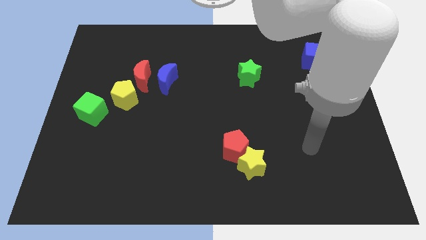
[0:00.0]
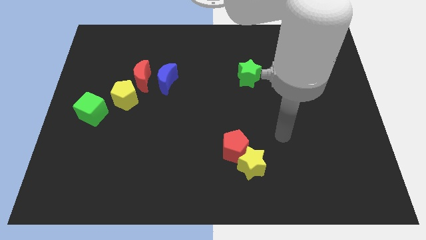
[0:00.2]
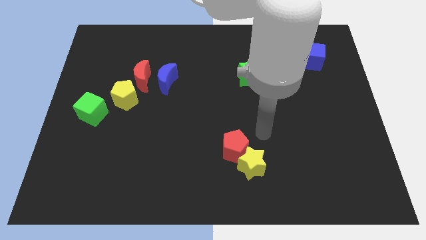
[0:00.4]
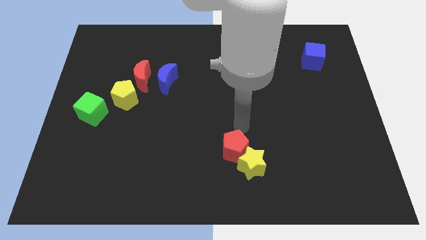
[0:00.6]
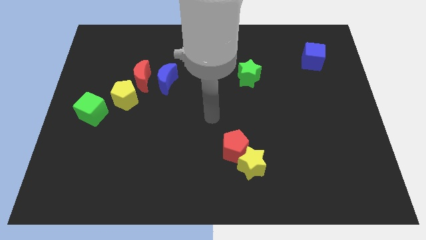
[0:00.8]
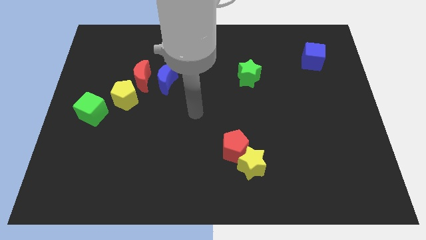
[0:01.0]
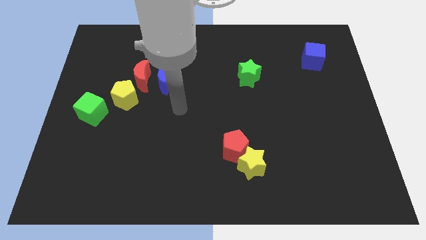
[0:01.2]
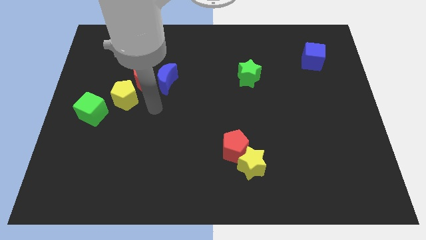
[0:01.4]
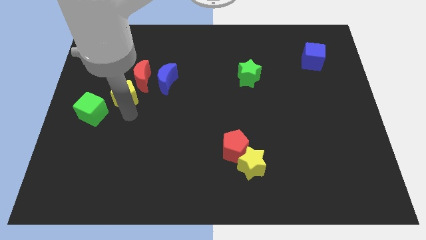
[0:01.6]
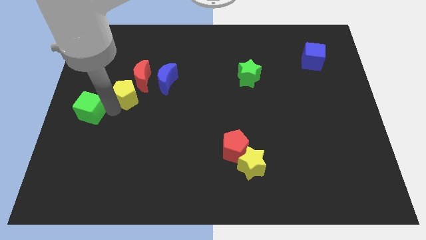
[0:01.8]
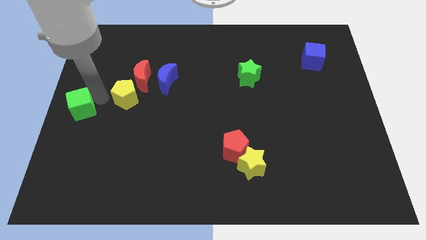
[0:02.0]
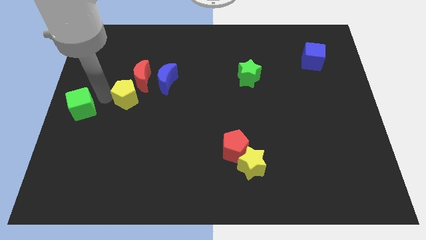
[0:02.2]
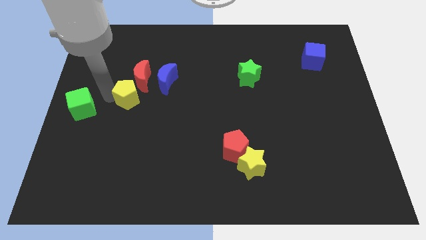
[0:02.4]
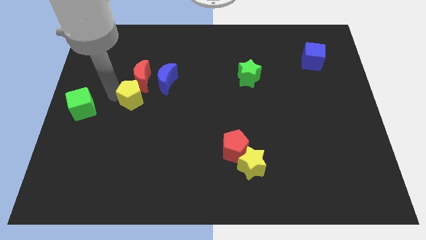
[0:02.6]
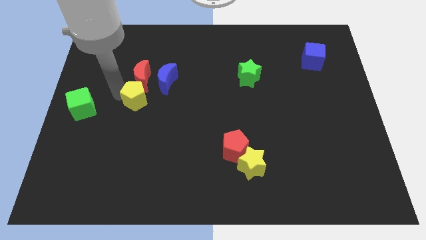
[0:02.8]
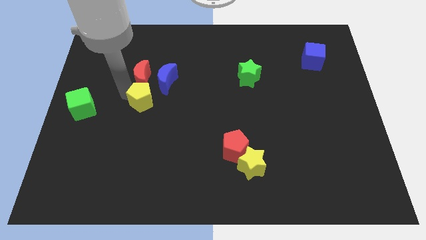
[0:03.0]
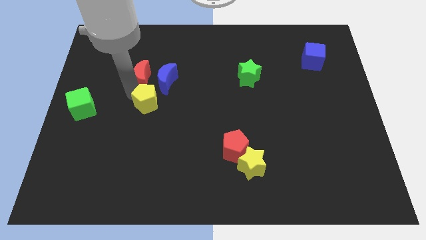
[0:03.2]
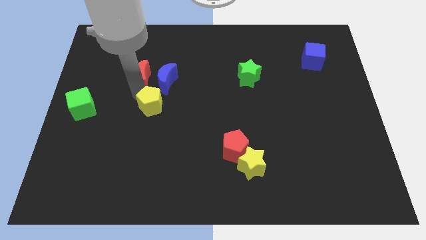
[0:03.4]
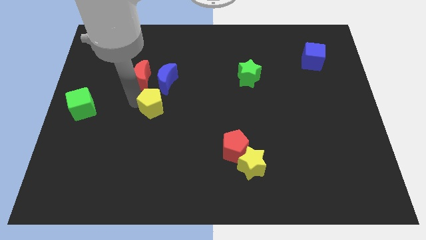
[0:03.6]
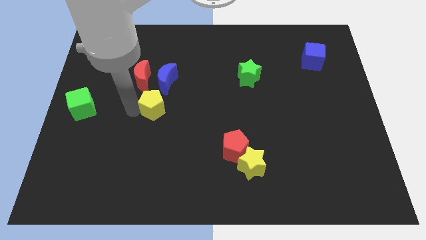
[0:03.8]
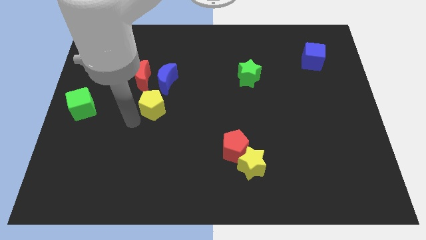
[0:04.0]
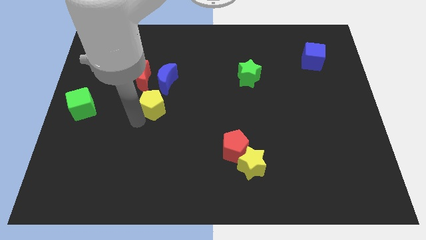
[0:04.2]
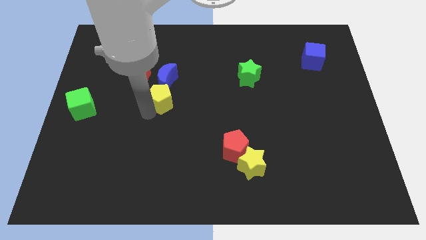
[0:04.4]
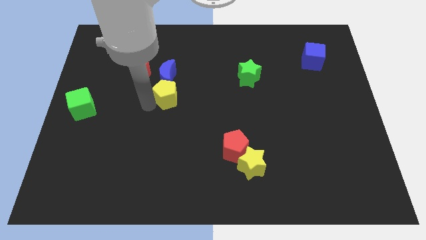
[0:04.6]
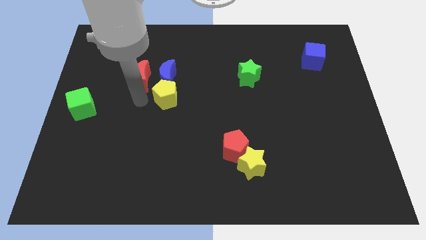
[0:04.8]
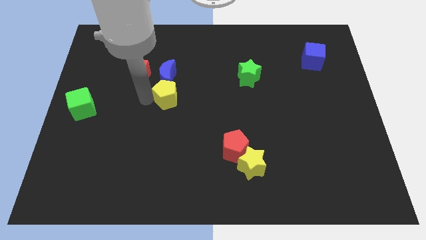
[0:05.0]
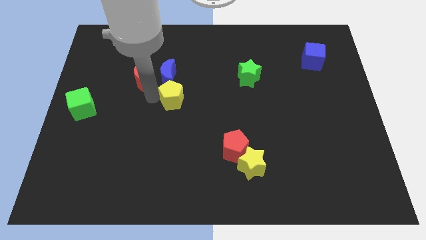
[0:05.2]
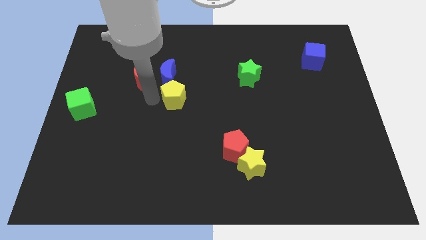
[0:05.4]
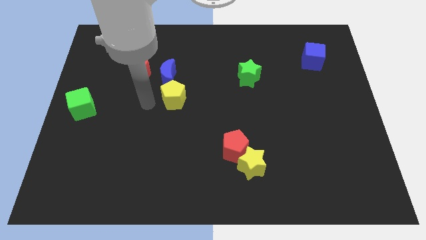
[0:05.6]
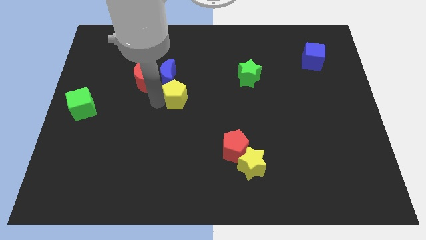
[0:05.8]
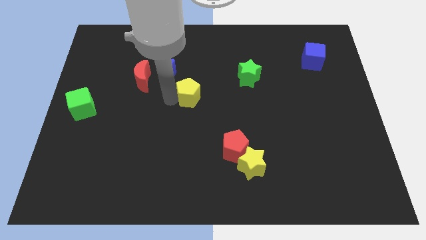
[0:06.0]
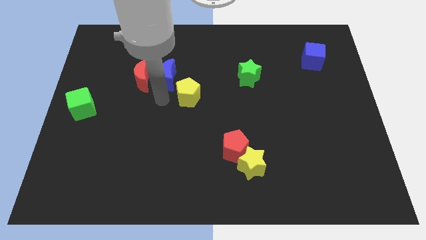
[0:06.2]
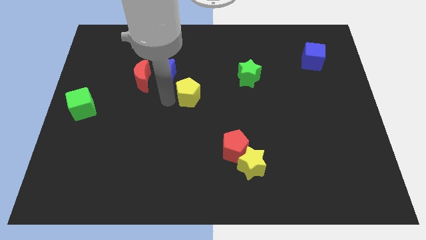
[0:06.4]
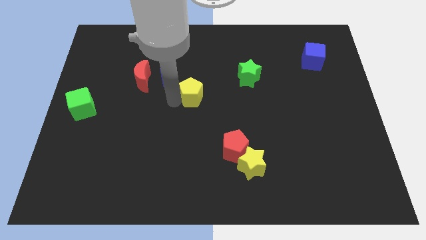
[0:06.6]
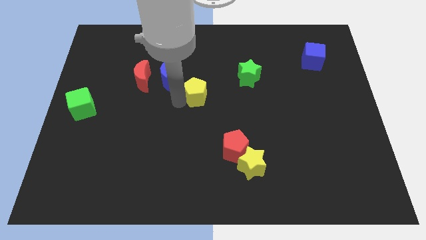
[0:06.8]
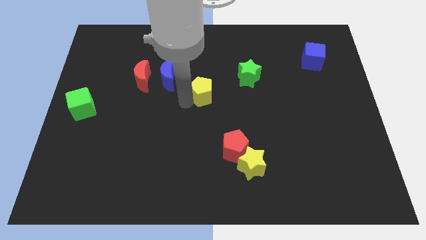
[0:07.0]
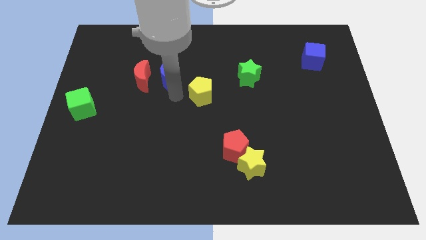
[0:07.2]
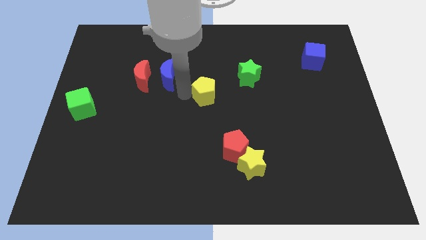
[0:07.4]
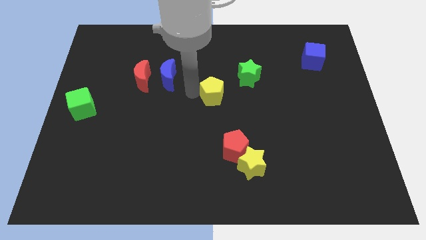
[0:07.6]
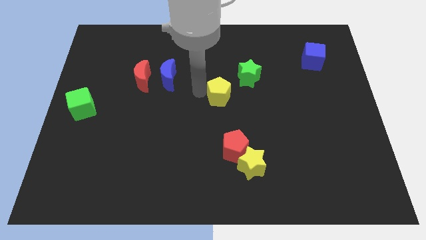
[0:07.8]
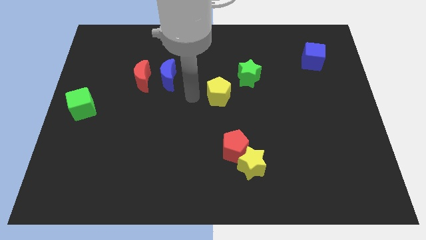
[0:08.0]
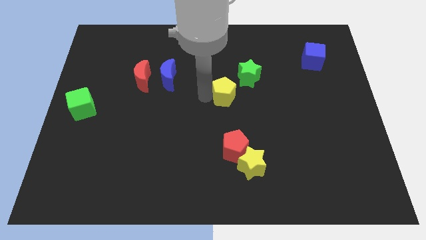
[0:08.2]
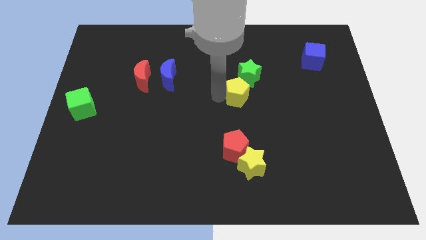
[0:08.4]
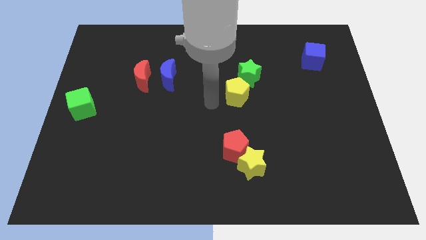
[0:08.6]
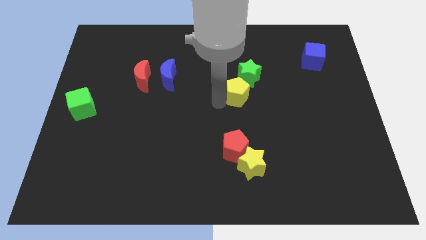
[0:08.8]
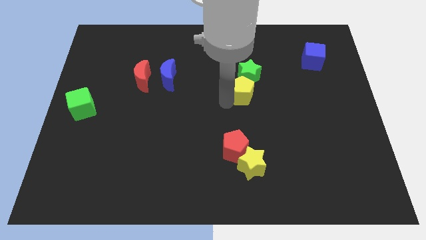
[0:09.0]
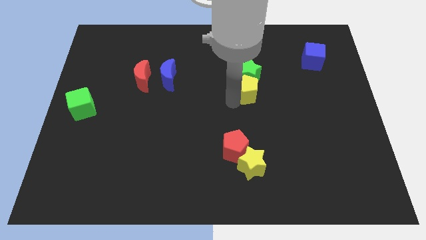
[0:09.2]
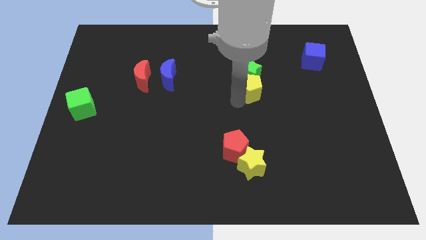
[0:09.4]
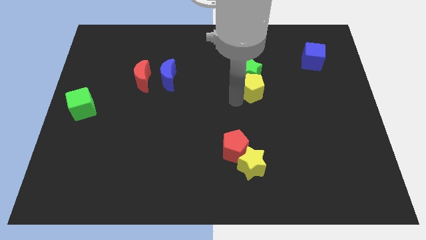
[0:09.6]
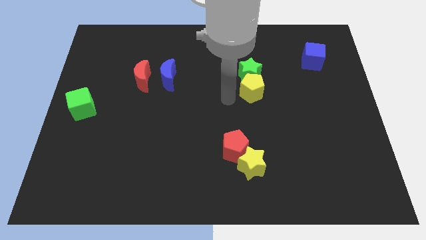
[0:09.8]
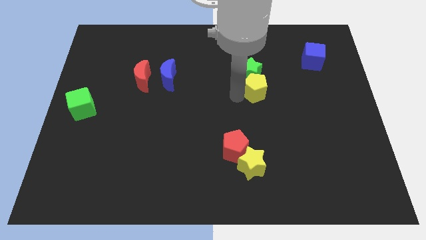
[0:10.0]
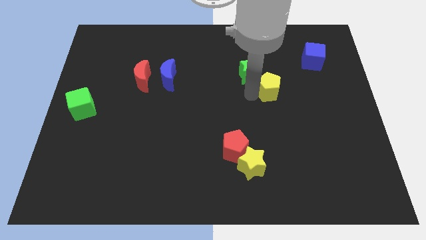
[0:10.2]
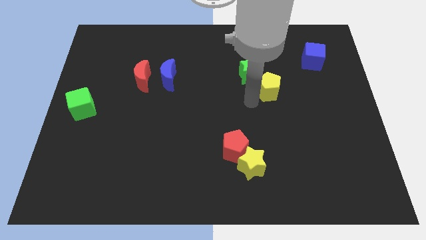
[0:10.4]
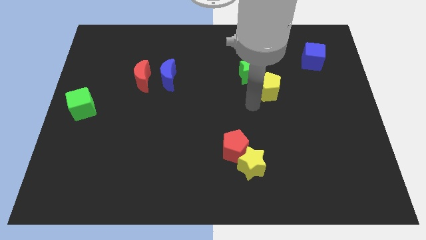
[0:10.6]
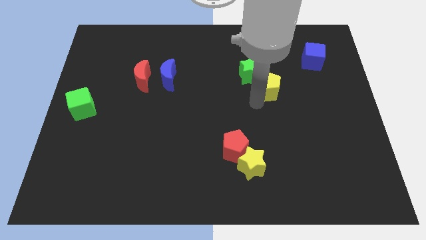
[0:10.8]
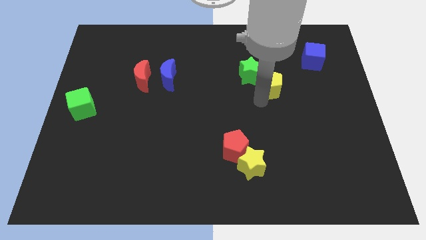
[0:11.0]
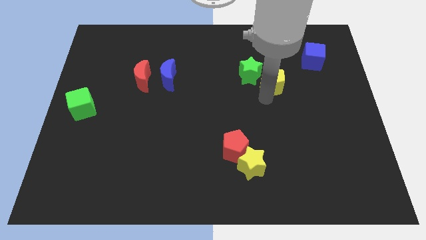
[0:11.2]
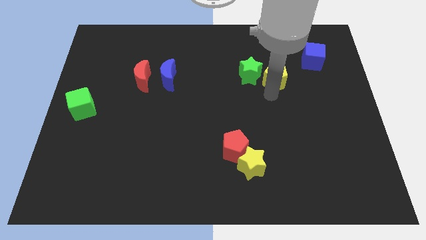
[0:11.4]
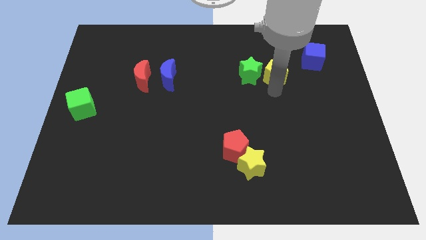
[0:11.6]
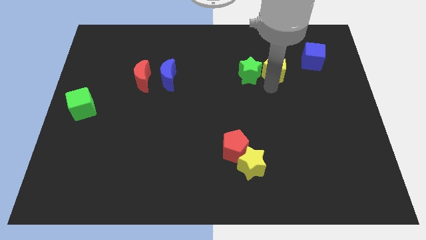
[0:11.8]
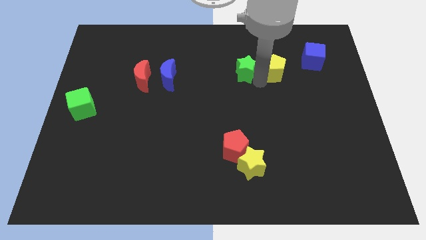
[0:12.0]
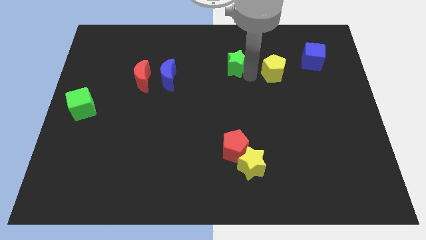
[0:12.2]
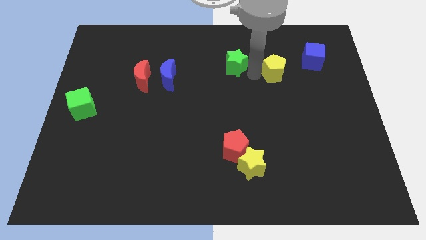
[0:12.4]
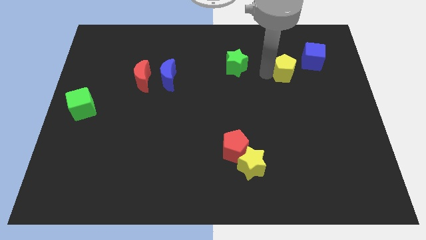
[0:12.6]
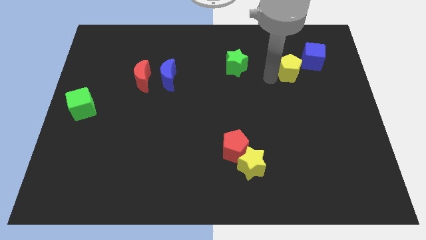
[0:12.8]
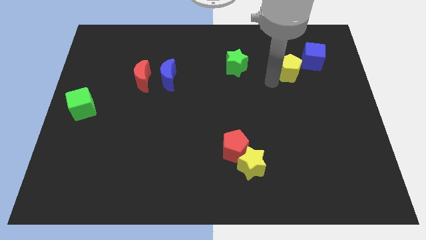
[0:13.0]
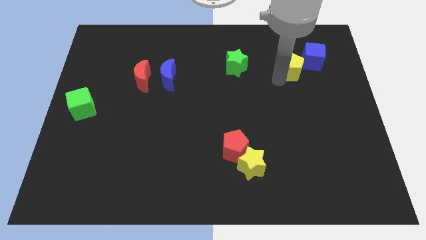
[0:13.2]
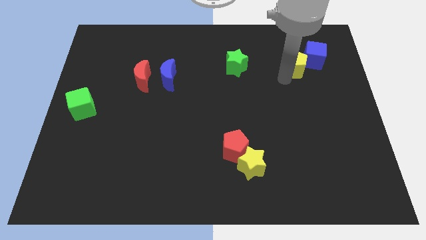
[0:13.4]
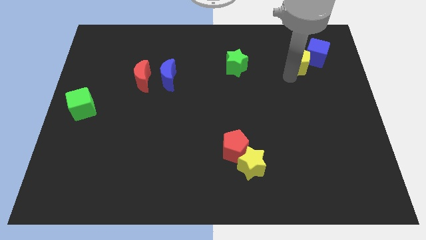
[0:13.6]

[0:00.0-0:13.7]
push the yellow pentagon to the blue cube
